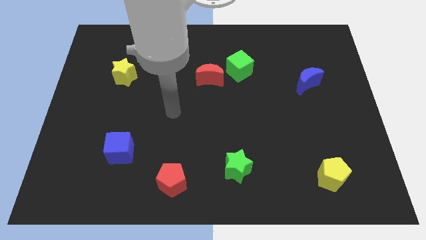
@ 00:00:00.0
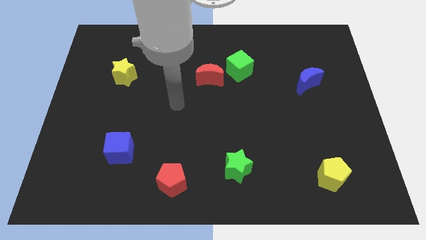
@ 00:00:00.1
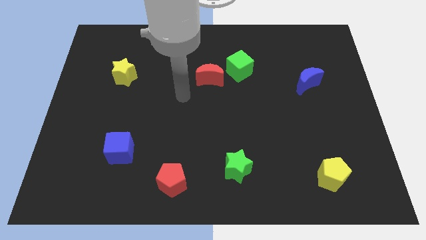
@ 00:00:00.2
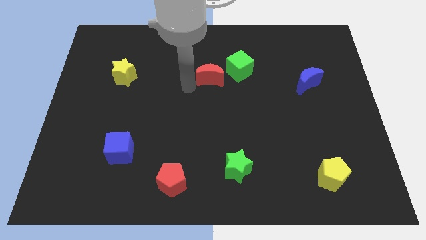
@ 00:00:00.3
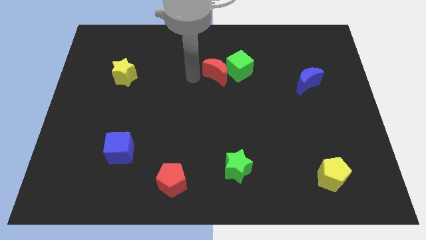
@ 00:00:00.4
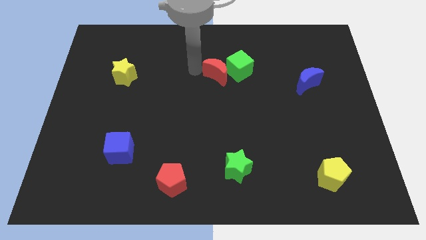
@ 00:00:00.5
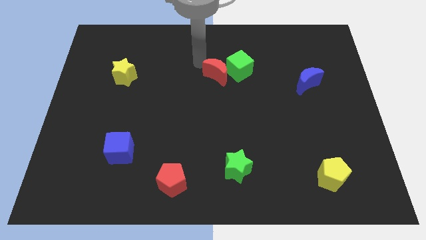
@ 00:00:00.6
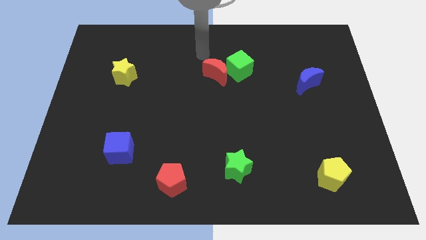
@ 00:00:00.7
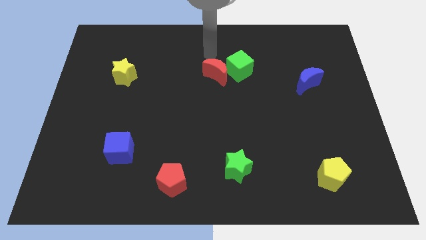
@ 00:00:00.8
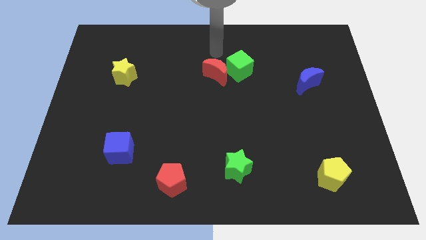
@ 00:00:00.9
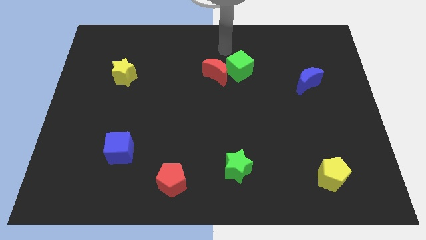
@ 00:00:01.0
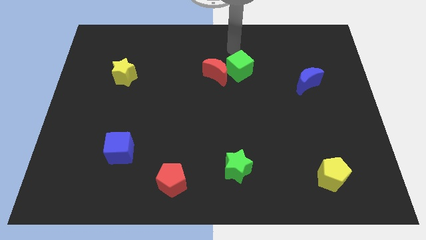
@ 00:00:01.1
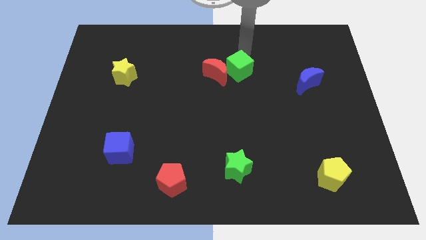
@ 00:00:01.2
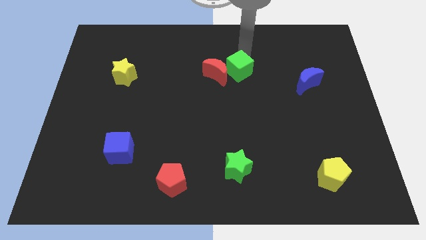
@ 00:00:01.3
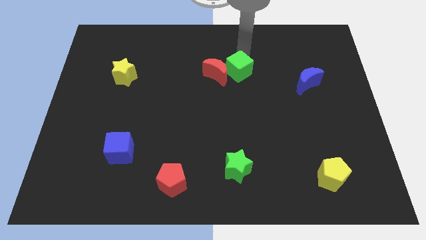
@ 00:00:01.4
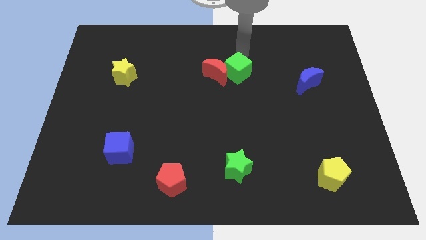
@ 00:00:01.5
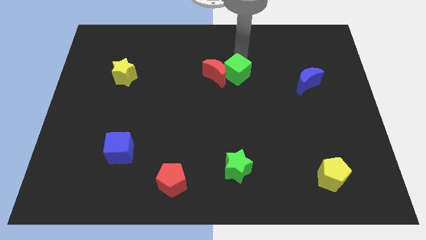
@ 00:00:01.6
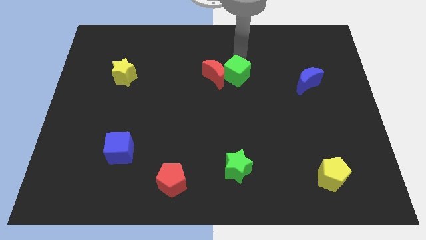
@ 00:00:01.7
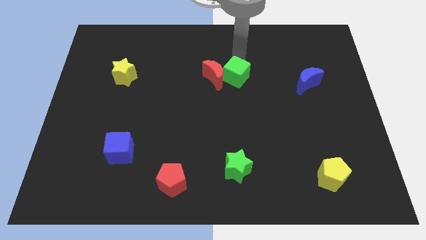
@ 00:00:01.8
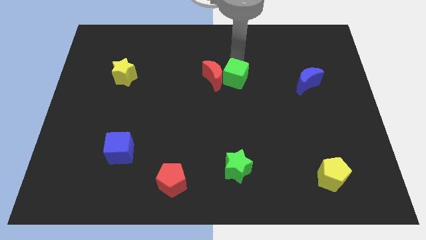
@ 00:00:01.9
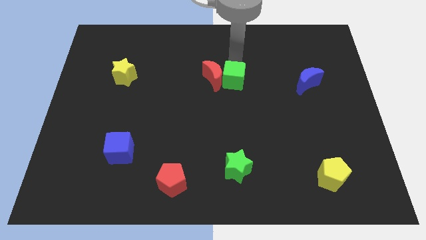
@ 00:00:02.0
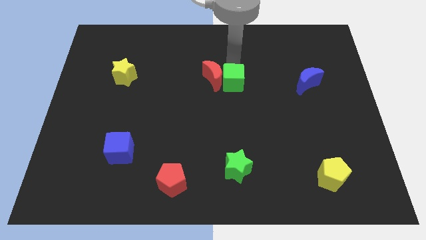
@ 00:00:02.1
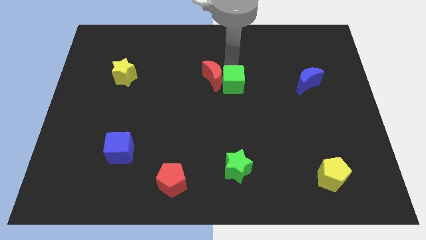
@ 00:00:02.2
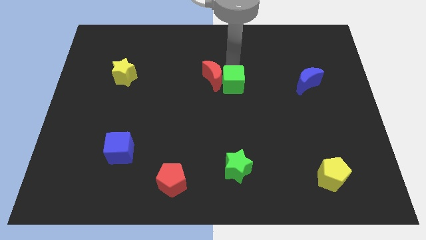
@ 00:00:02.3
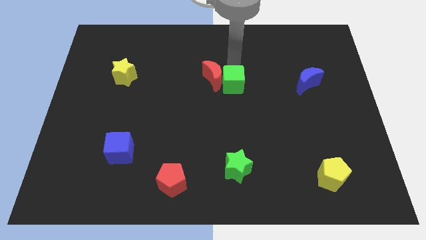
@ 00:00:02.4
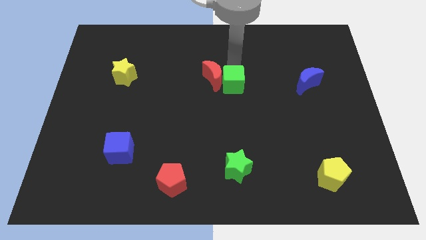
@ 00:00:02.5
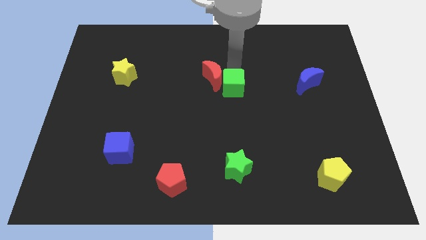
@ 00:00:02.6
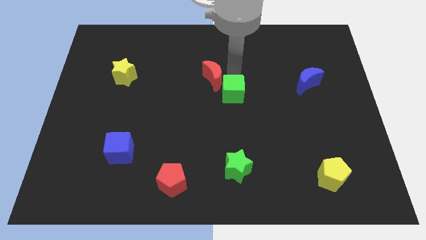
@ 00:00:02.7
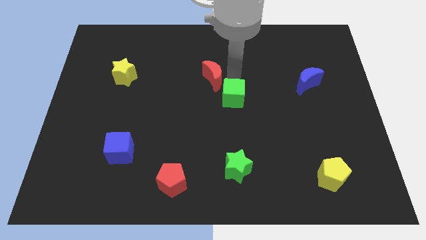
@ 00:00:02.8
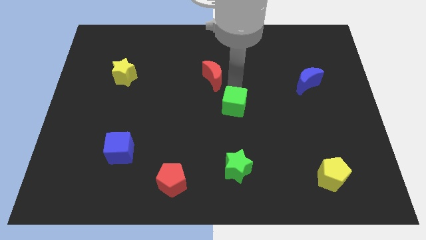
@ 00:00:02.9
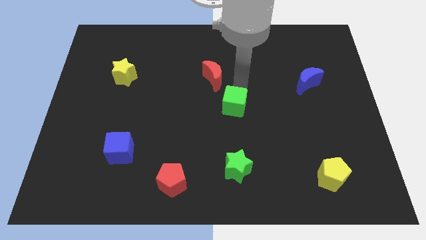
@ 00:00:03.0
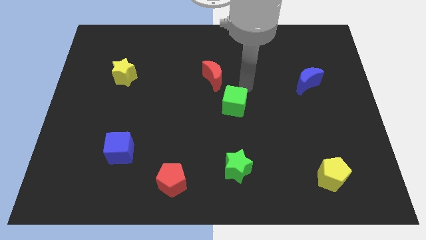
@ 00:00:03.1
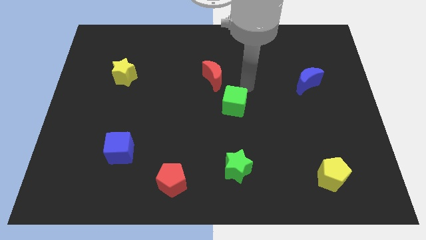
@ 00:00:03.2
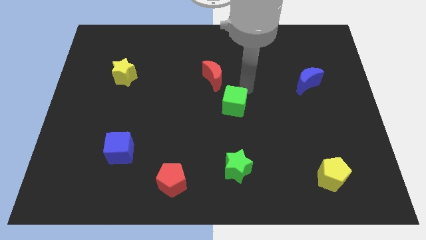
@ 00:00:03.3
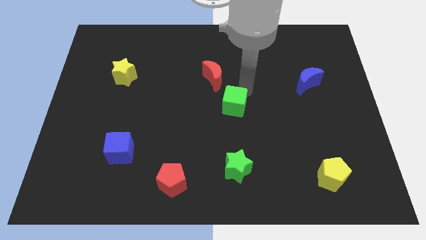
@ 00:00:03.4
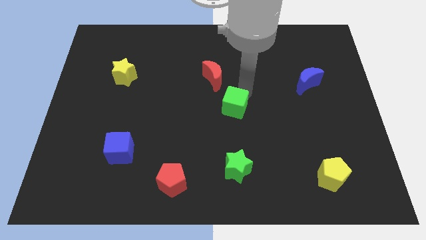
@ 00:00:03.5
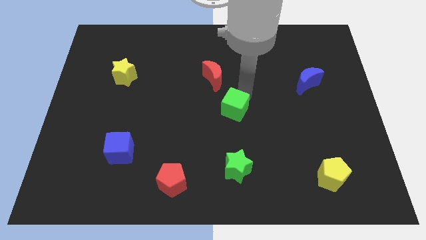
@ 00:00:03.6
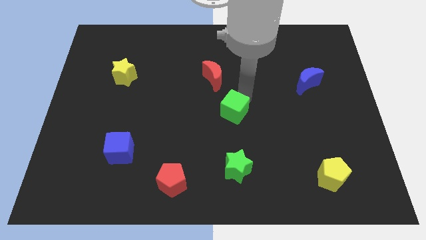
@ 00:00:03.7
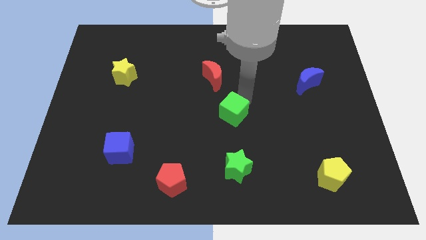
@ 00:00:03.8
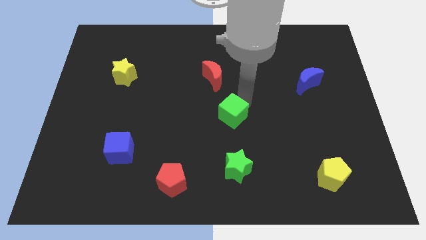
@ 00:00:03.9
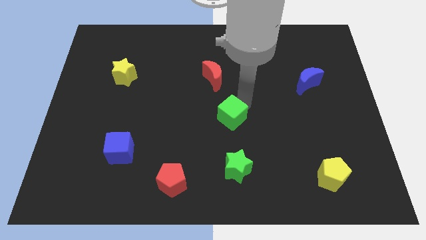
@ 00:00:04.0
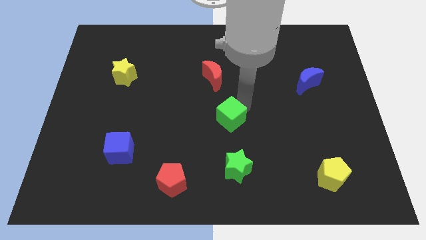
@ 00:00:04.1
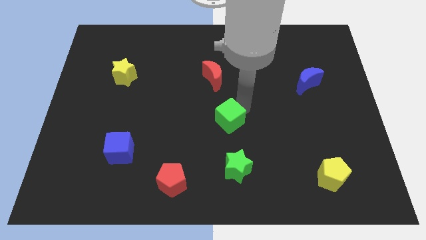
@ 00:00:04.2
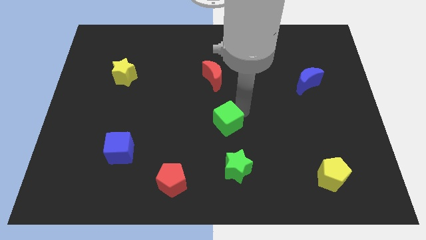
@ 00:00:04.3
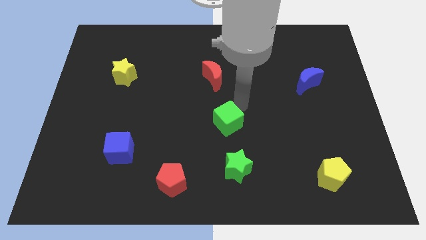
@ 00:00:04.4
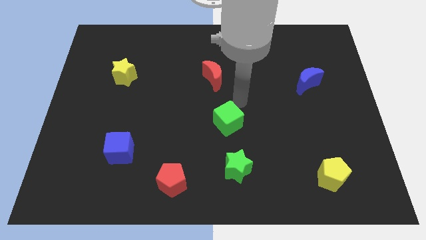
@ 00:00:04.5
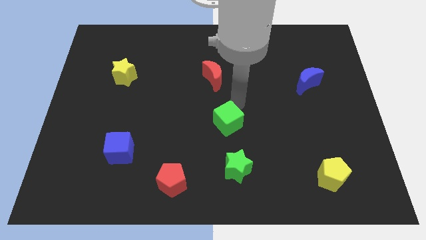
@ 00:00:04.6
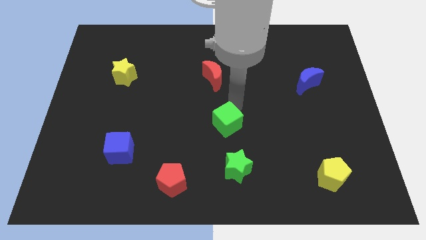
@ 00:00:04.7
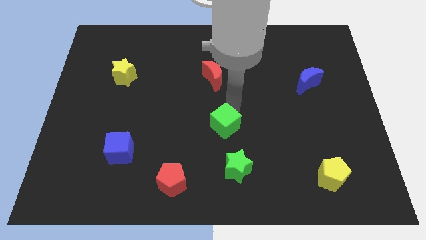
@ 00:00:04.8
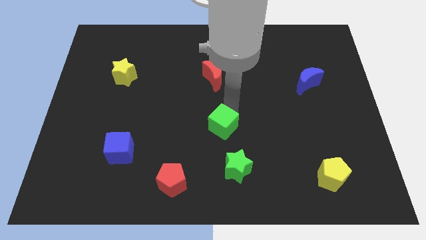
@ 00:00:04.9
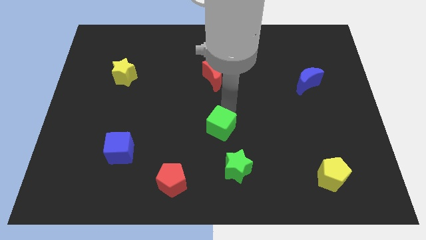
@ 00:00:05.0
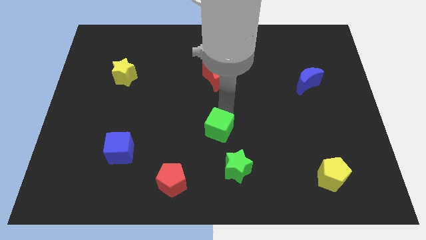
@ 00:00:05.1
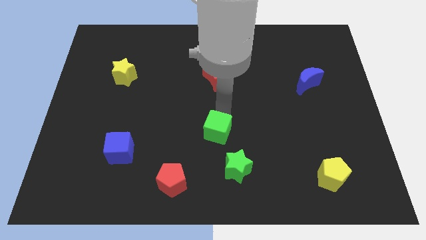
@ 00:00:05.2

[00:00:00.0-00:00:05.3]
put the green cube diagonally up and to the left of the green star

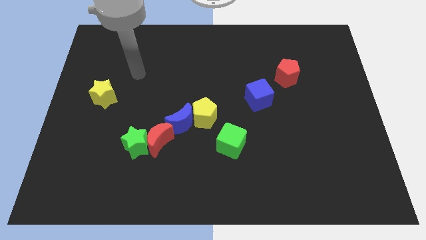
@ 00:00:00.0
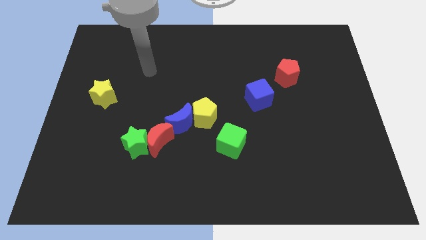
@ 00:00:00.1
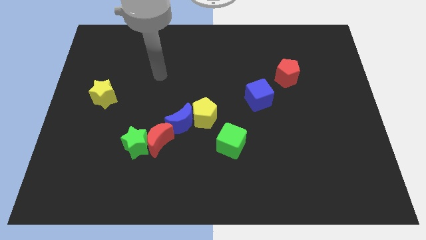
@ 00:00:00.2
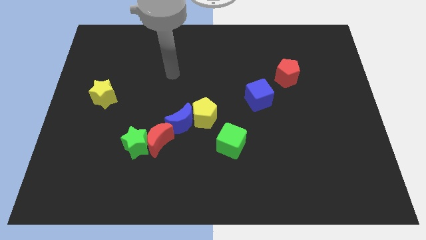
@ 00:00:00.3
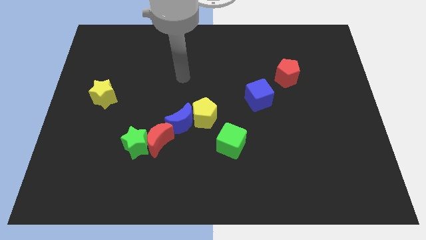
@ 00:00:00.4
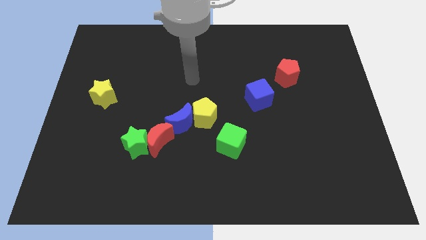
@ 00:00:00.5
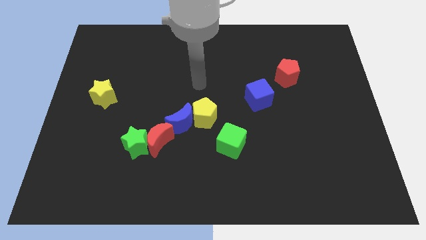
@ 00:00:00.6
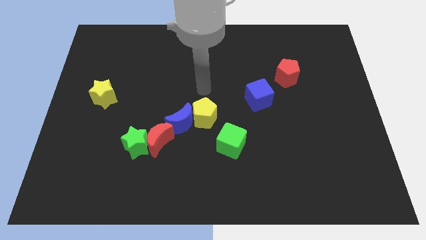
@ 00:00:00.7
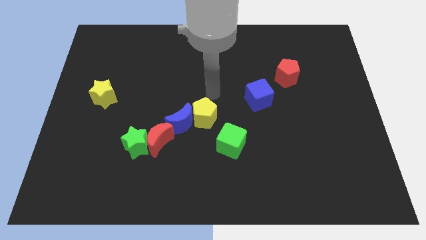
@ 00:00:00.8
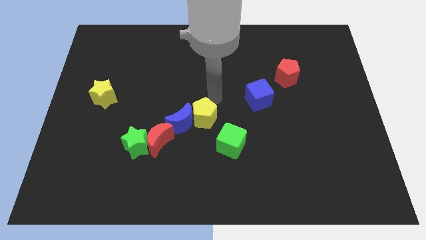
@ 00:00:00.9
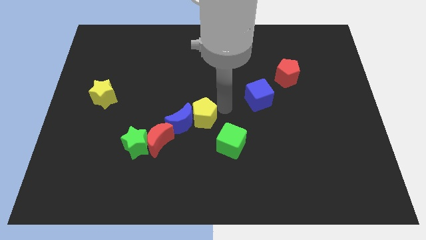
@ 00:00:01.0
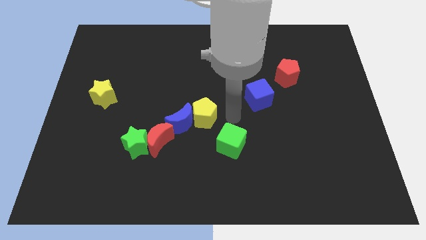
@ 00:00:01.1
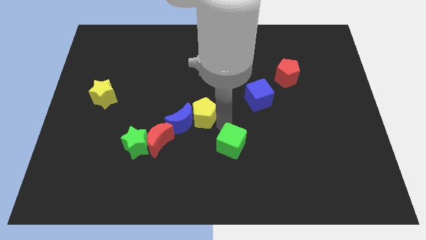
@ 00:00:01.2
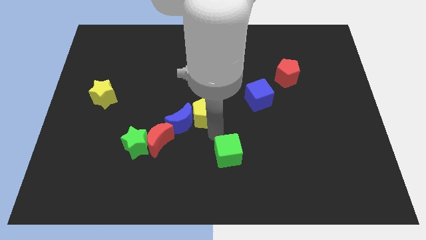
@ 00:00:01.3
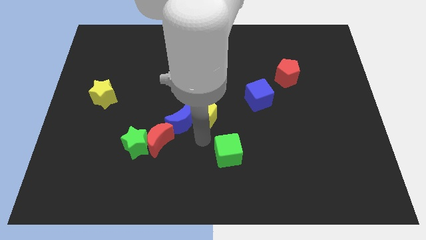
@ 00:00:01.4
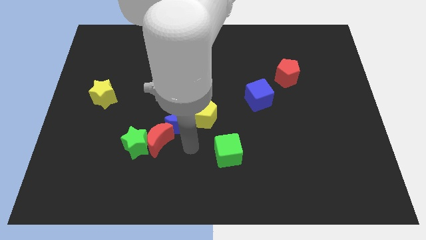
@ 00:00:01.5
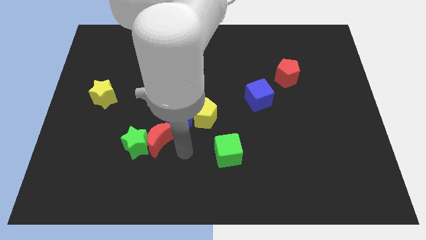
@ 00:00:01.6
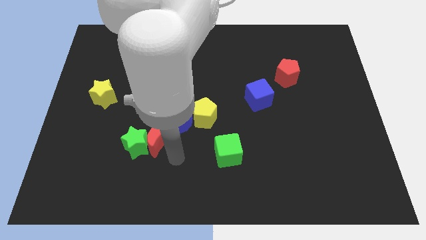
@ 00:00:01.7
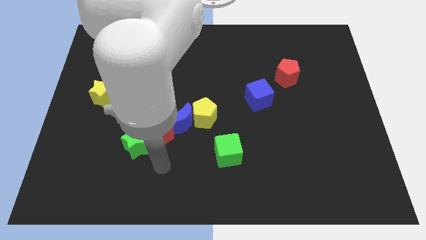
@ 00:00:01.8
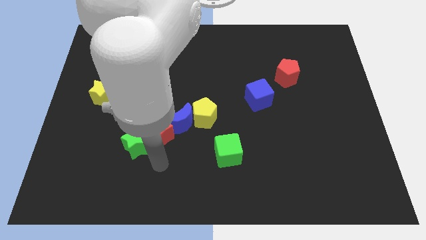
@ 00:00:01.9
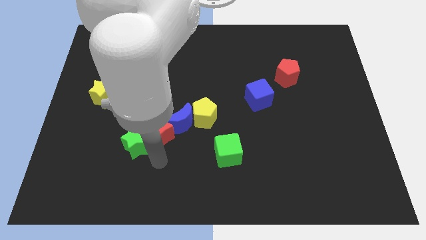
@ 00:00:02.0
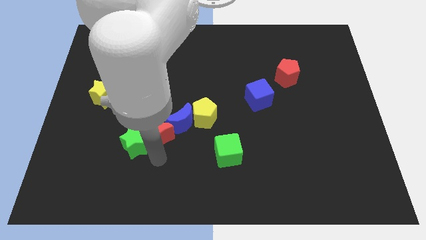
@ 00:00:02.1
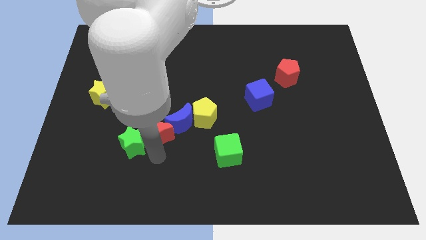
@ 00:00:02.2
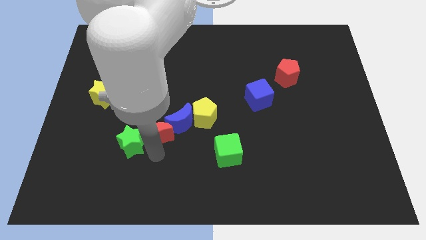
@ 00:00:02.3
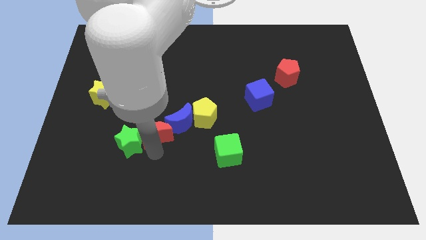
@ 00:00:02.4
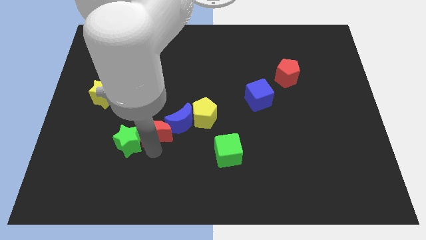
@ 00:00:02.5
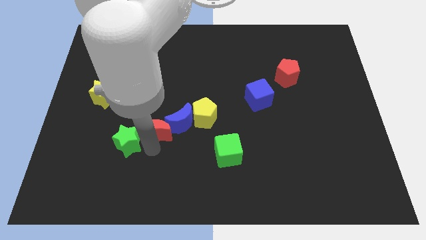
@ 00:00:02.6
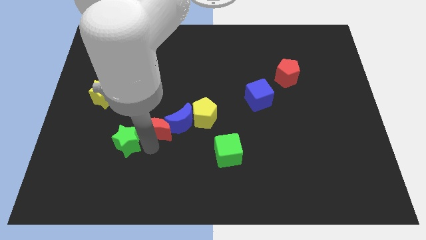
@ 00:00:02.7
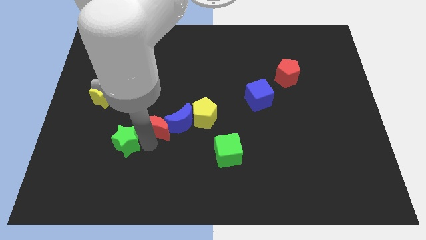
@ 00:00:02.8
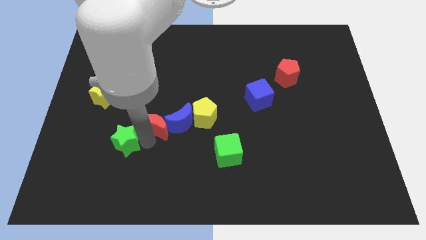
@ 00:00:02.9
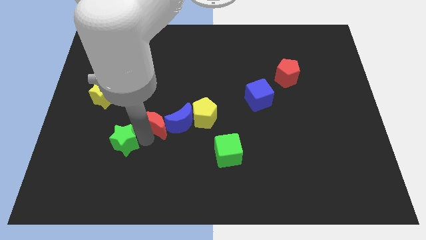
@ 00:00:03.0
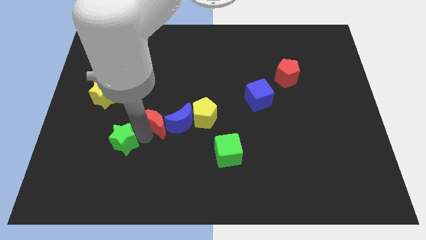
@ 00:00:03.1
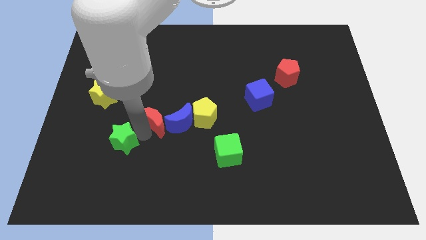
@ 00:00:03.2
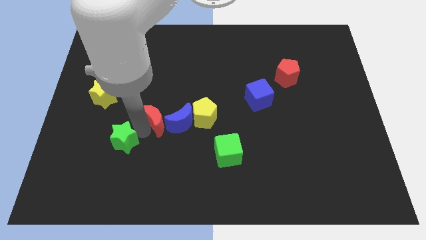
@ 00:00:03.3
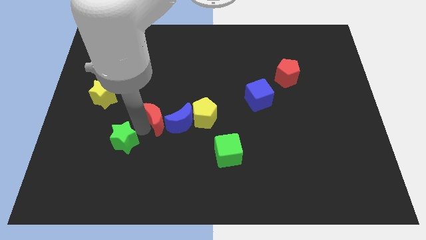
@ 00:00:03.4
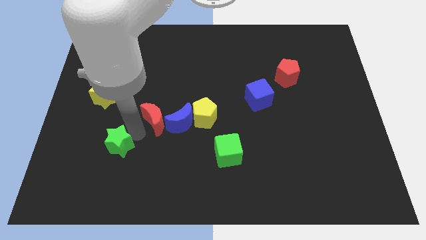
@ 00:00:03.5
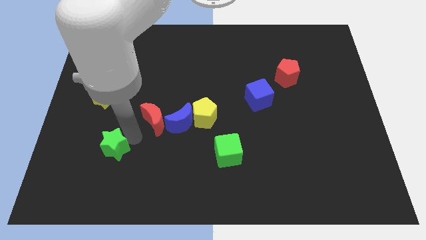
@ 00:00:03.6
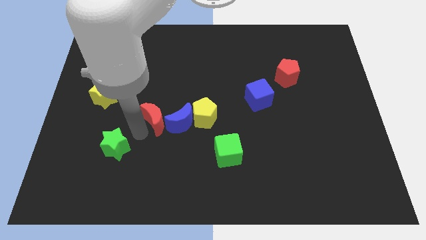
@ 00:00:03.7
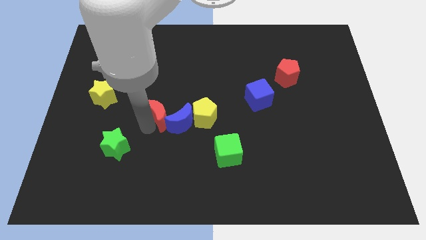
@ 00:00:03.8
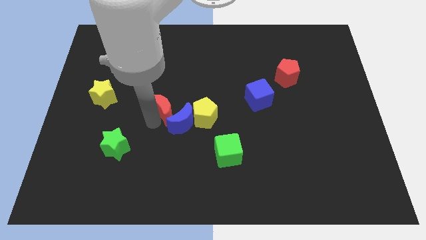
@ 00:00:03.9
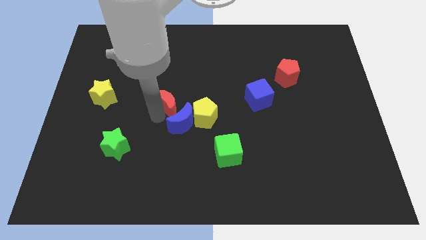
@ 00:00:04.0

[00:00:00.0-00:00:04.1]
slide the red moon to the top left of the yellow pentagon
